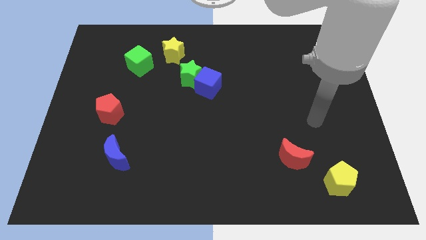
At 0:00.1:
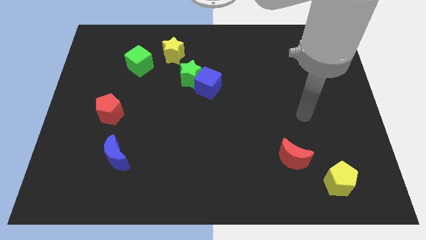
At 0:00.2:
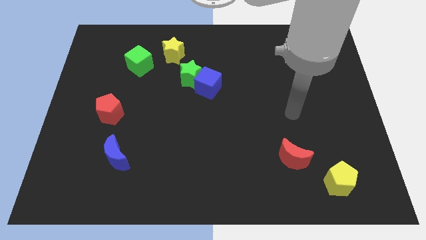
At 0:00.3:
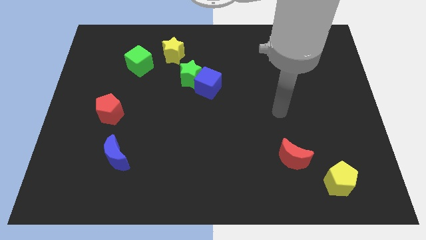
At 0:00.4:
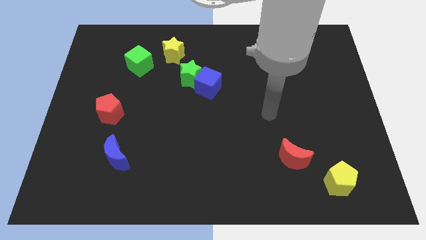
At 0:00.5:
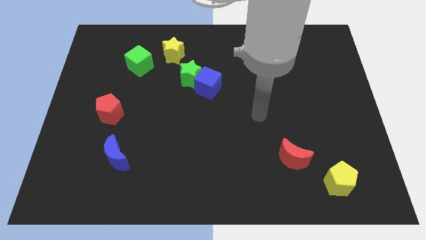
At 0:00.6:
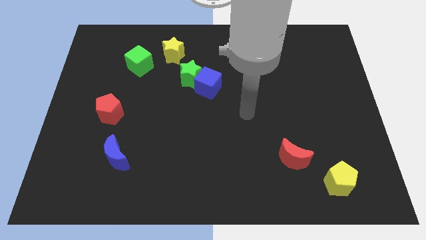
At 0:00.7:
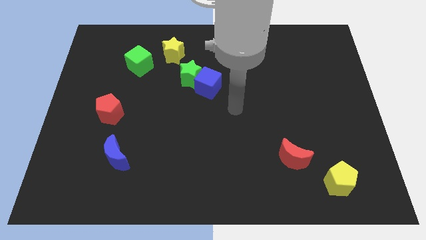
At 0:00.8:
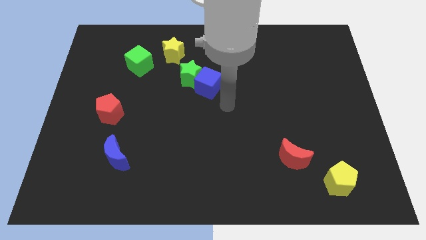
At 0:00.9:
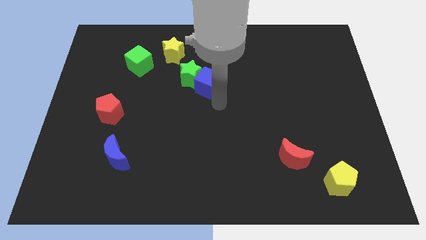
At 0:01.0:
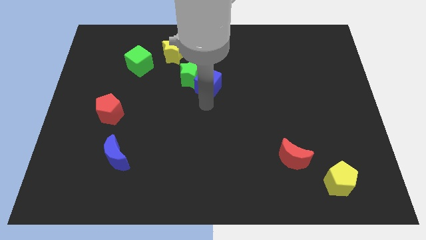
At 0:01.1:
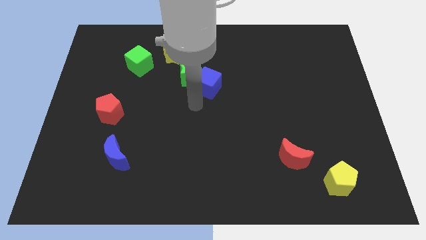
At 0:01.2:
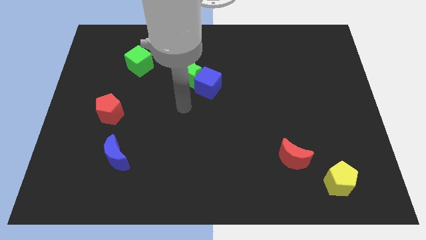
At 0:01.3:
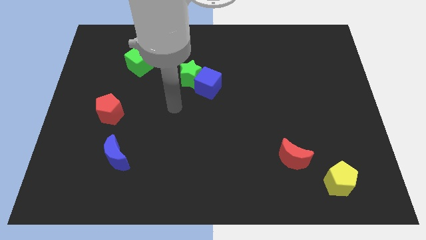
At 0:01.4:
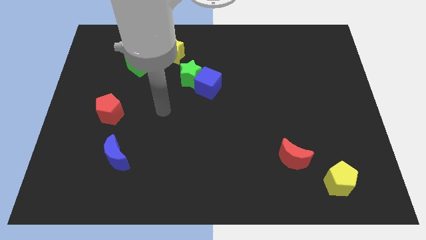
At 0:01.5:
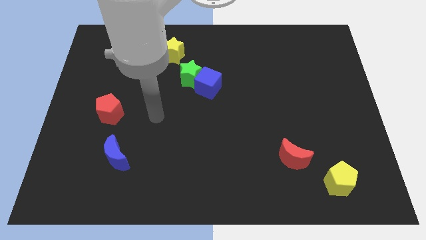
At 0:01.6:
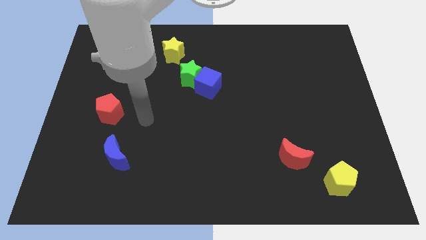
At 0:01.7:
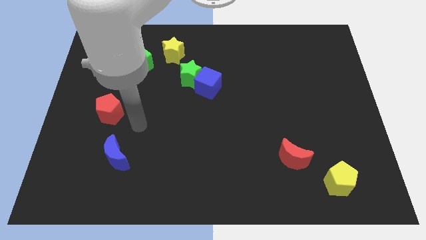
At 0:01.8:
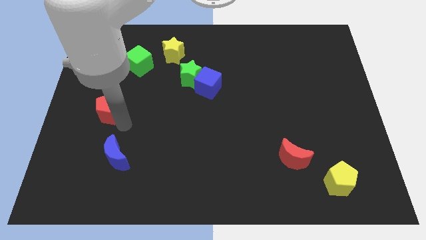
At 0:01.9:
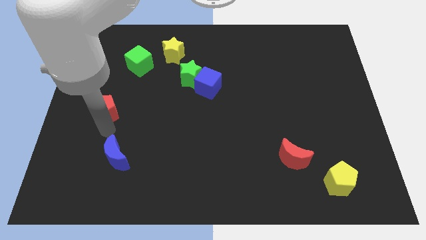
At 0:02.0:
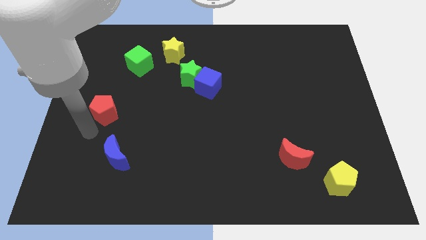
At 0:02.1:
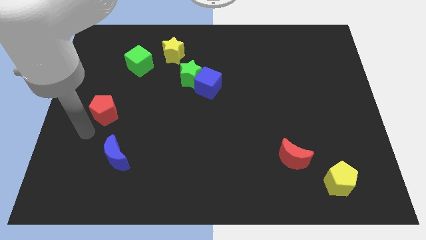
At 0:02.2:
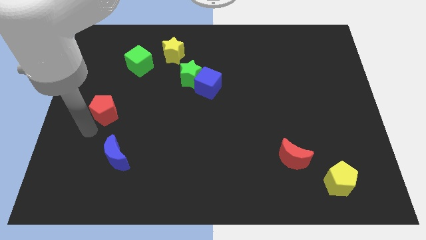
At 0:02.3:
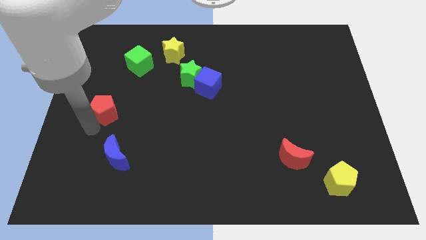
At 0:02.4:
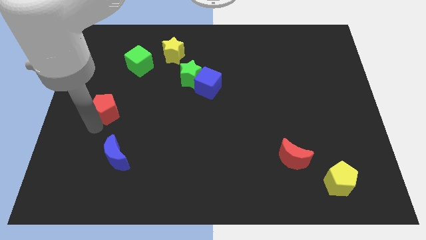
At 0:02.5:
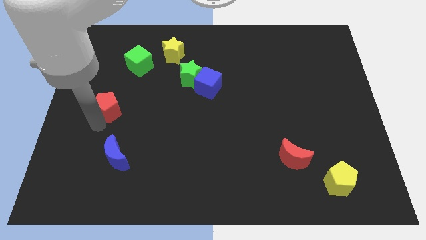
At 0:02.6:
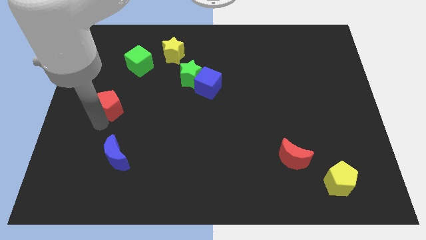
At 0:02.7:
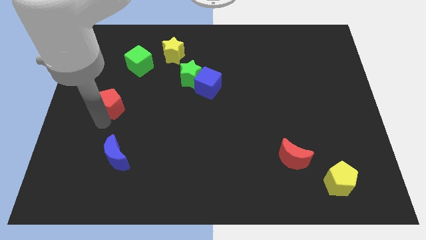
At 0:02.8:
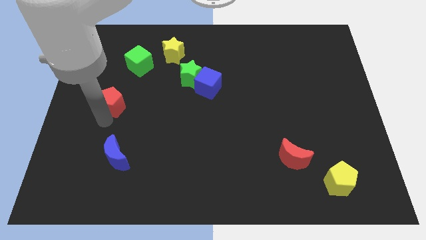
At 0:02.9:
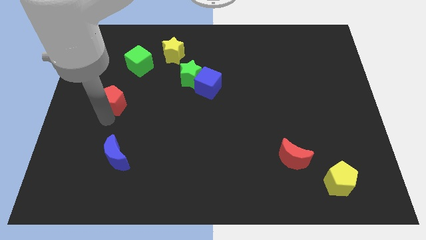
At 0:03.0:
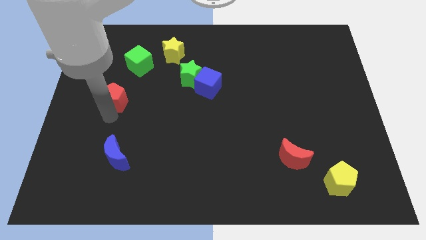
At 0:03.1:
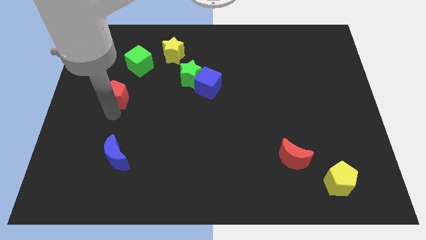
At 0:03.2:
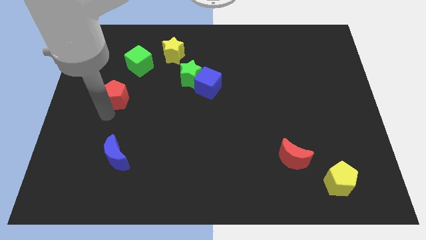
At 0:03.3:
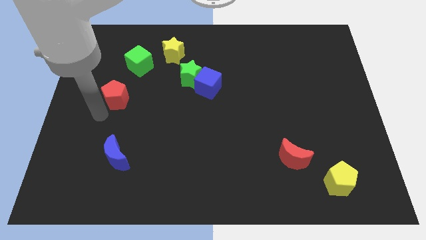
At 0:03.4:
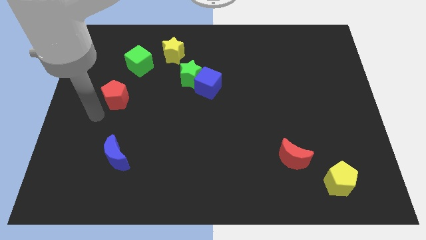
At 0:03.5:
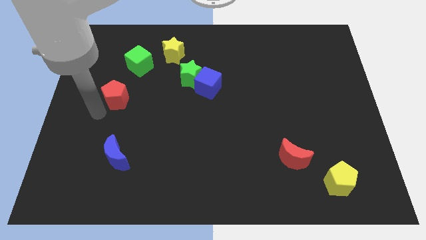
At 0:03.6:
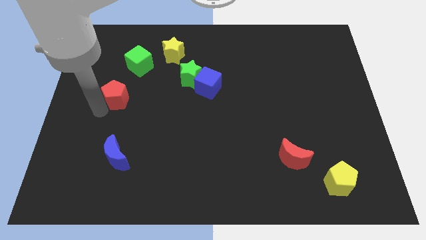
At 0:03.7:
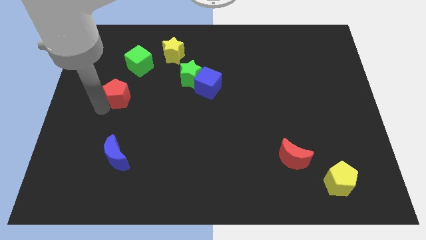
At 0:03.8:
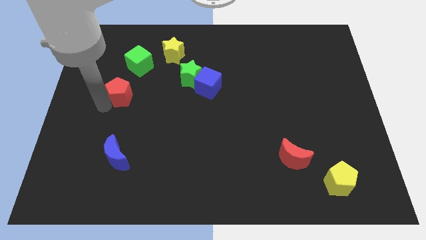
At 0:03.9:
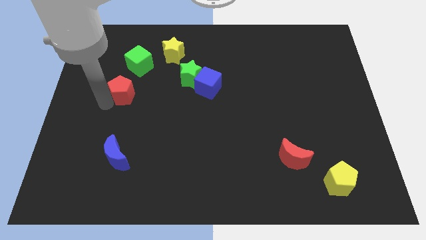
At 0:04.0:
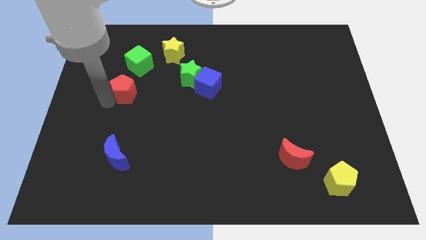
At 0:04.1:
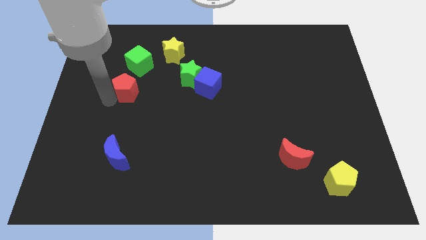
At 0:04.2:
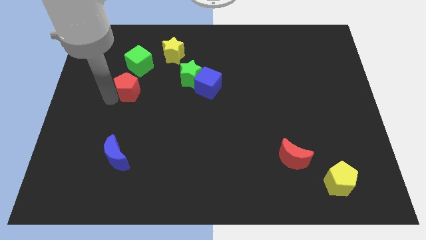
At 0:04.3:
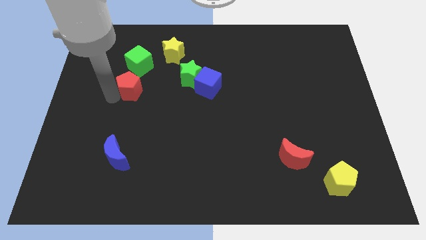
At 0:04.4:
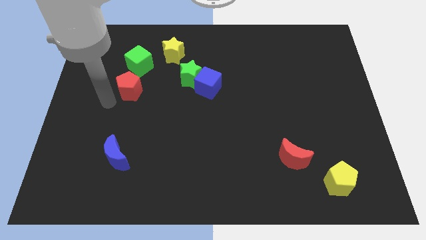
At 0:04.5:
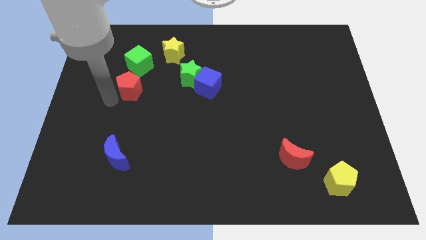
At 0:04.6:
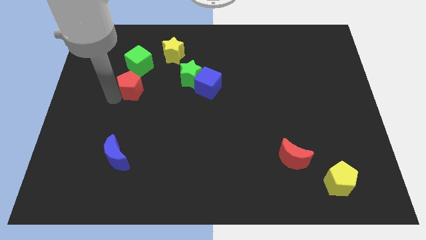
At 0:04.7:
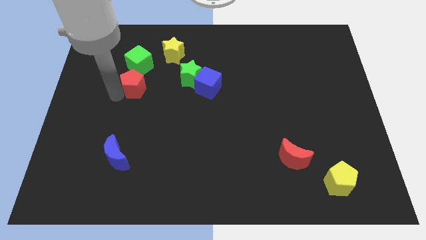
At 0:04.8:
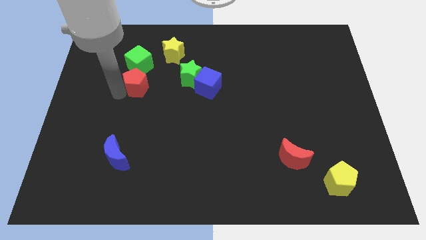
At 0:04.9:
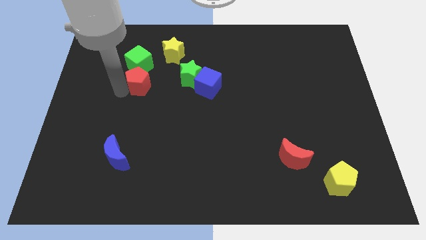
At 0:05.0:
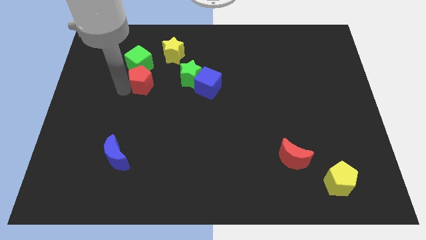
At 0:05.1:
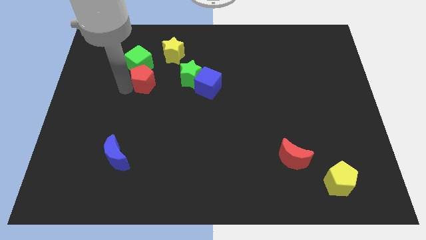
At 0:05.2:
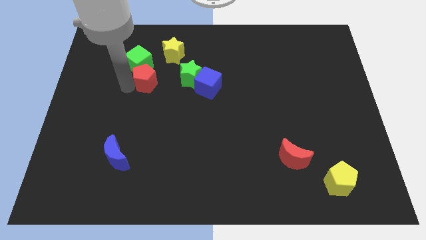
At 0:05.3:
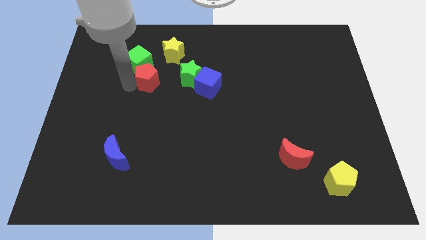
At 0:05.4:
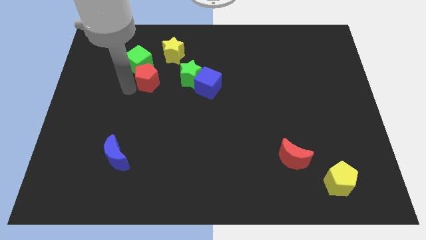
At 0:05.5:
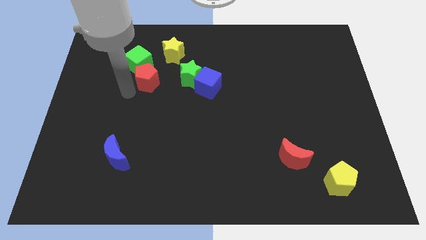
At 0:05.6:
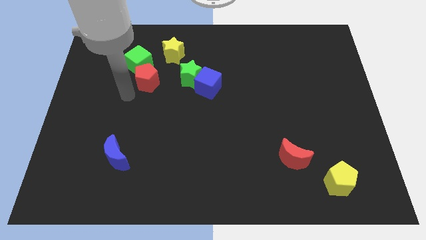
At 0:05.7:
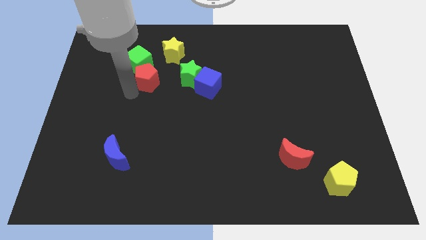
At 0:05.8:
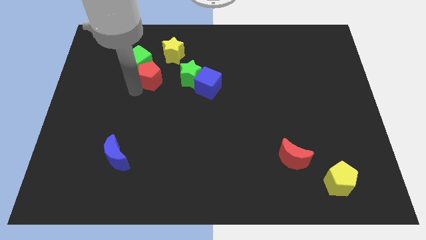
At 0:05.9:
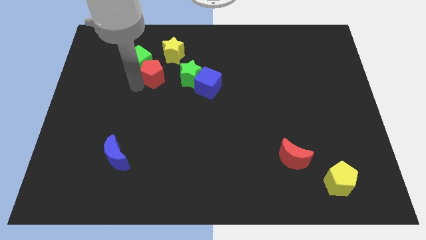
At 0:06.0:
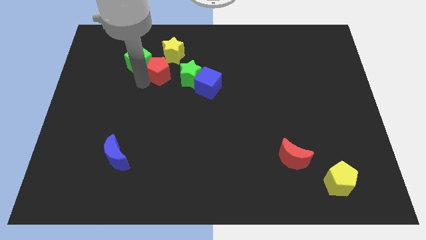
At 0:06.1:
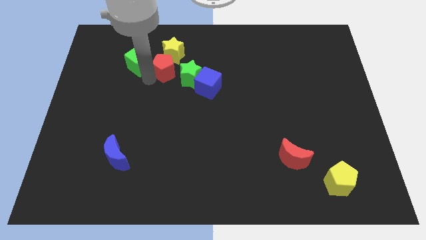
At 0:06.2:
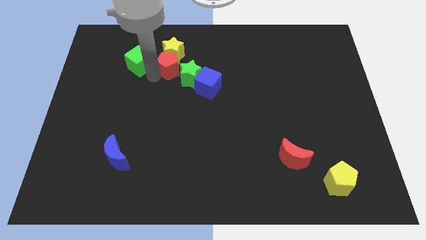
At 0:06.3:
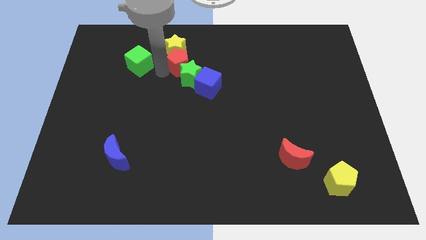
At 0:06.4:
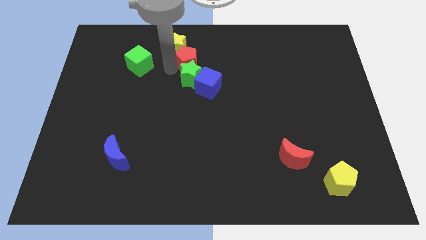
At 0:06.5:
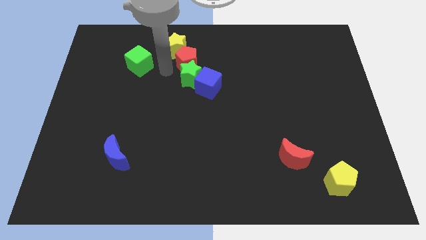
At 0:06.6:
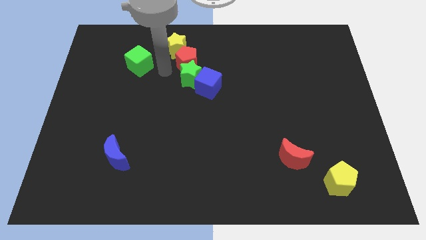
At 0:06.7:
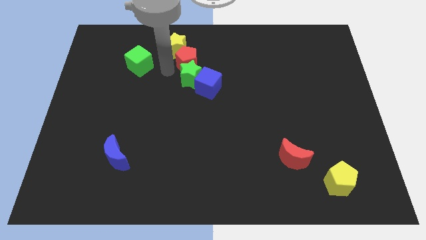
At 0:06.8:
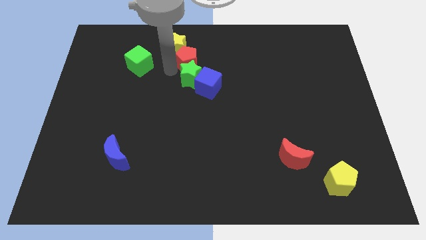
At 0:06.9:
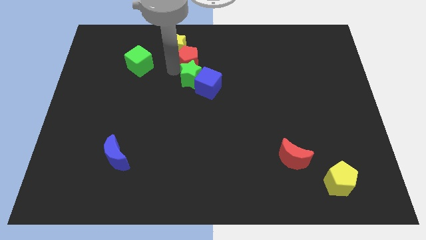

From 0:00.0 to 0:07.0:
move the red pentagon to the top side of the blue cube

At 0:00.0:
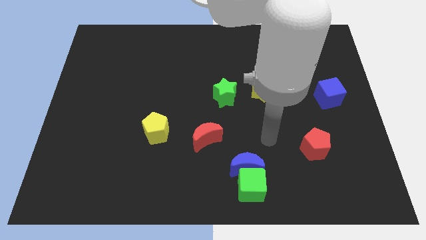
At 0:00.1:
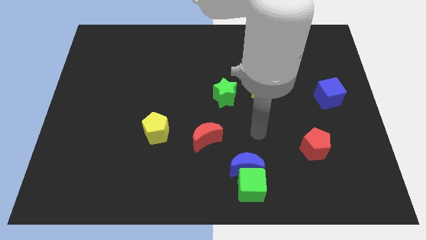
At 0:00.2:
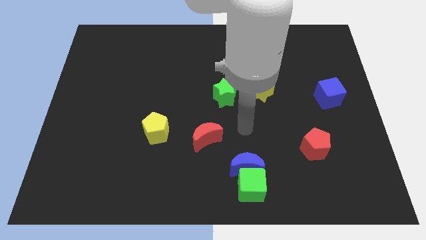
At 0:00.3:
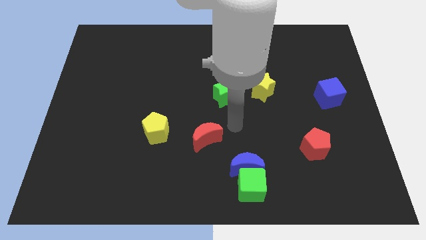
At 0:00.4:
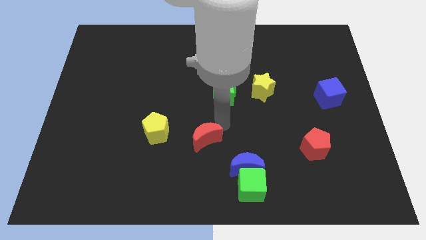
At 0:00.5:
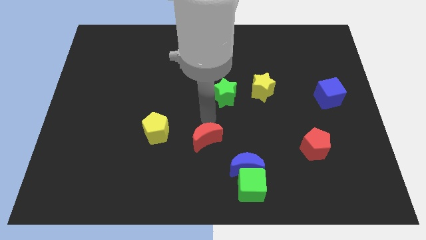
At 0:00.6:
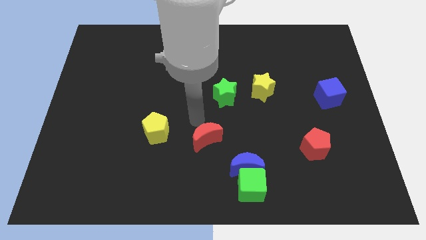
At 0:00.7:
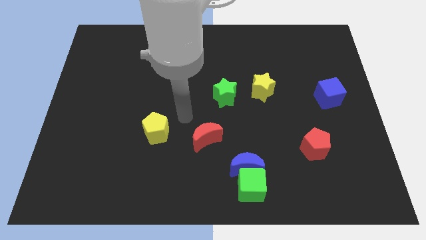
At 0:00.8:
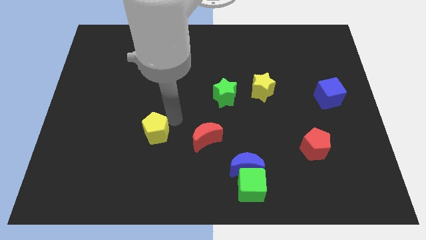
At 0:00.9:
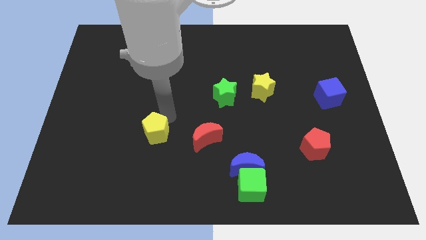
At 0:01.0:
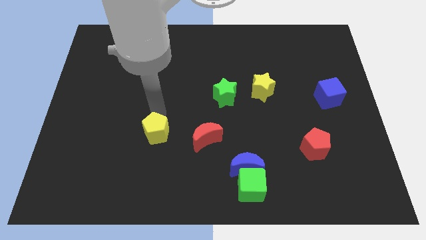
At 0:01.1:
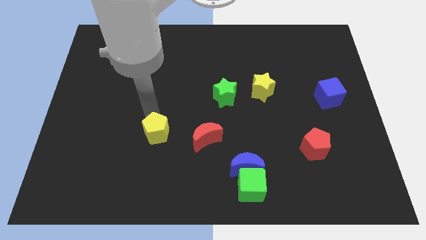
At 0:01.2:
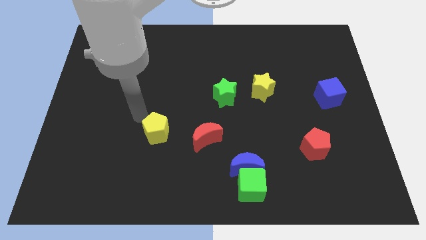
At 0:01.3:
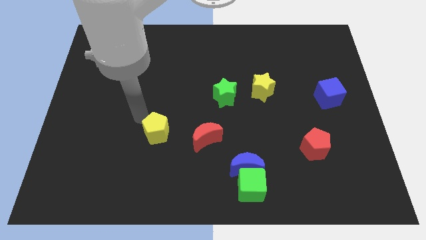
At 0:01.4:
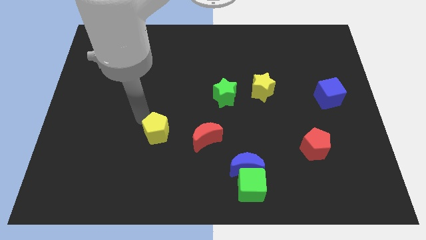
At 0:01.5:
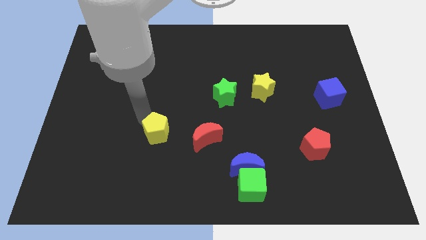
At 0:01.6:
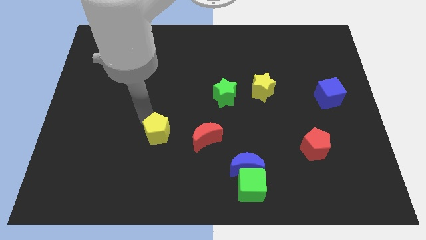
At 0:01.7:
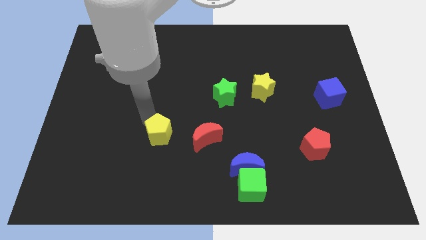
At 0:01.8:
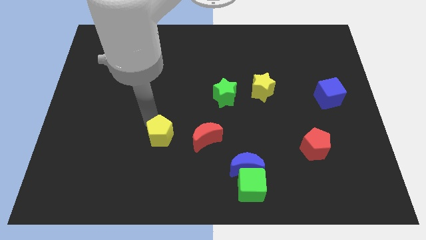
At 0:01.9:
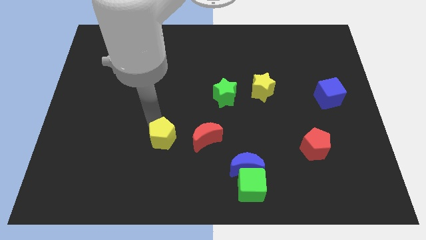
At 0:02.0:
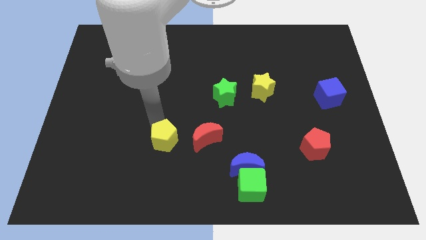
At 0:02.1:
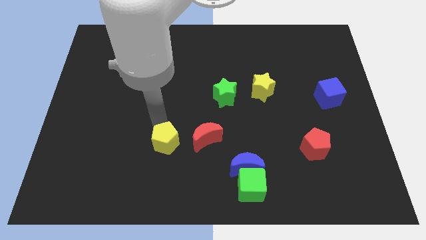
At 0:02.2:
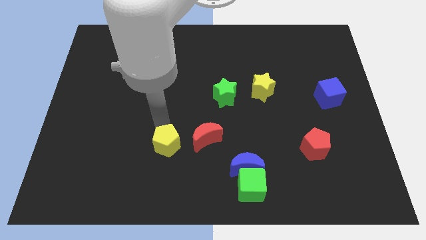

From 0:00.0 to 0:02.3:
put the yellow pentagon to the bottom left side of the red moon
